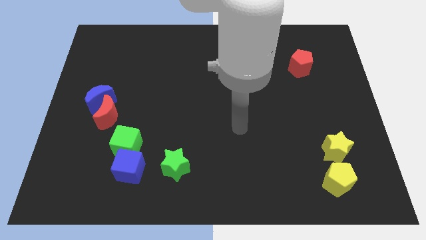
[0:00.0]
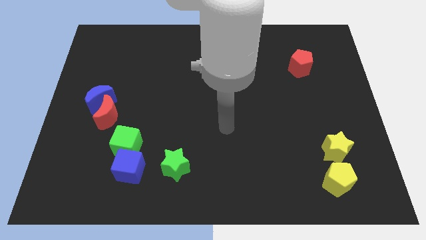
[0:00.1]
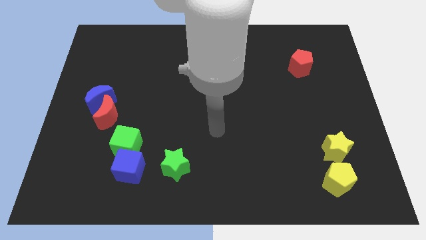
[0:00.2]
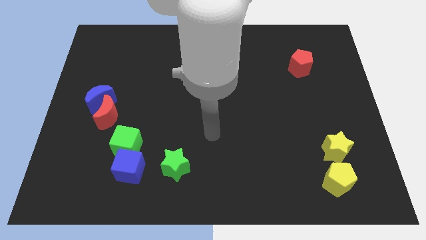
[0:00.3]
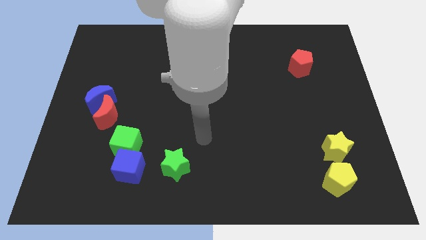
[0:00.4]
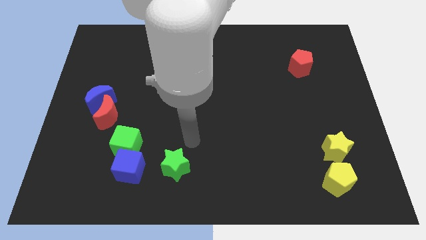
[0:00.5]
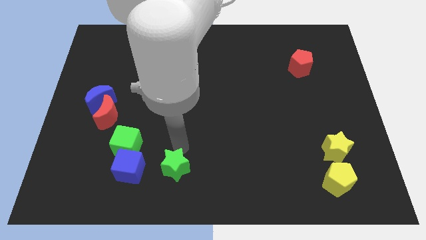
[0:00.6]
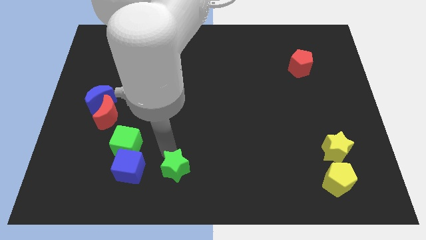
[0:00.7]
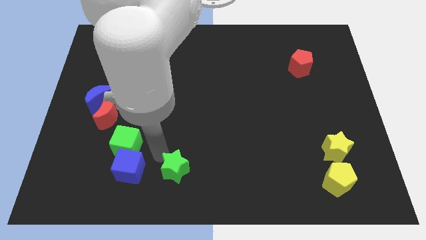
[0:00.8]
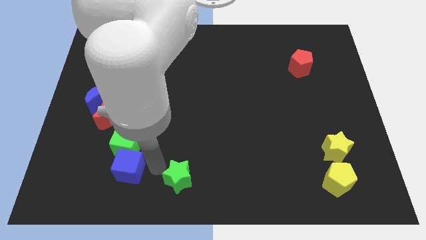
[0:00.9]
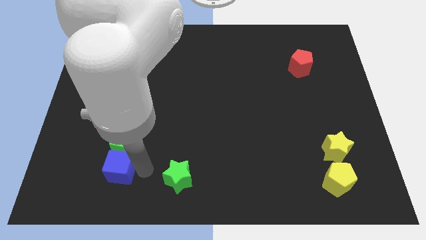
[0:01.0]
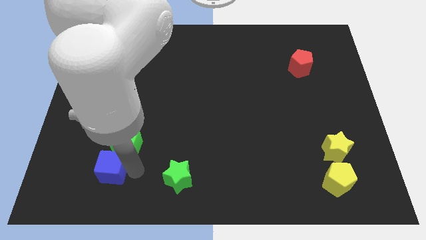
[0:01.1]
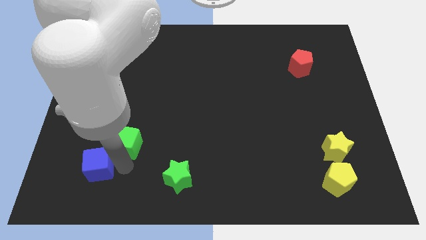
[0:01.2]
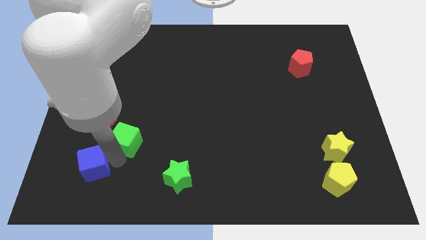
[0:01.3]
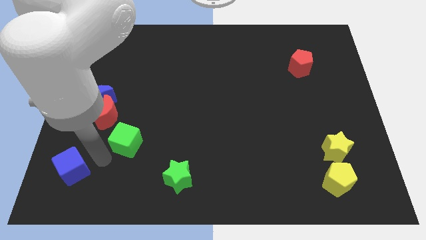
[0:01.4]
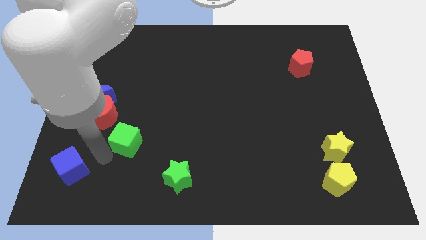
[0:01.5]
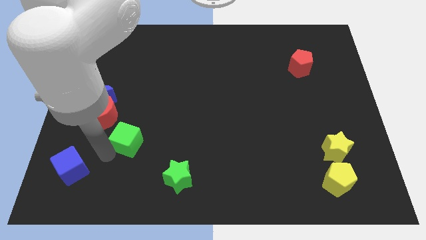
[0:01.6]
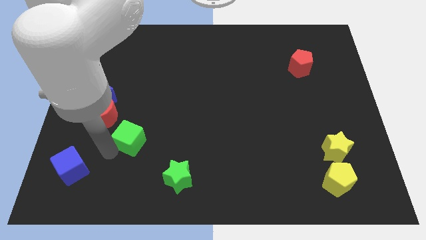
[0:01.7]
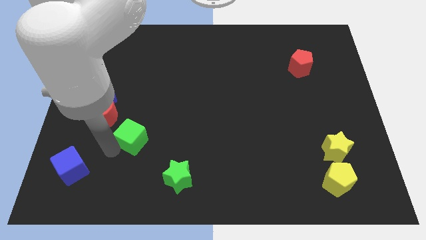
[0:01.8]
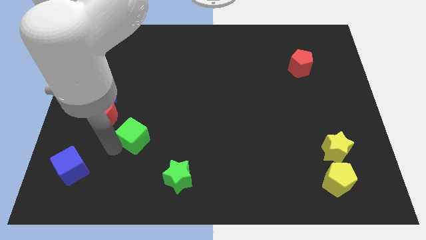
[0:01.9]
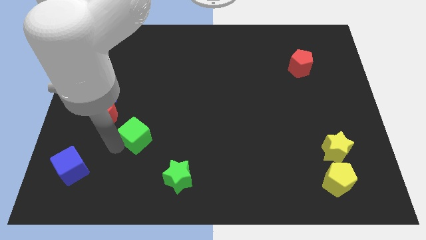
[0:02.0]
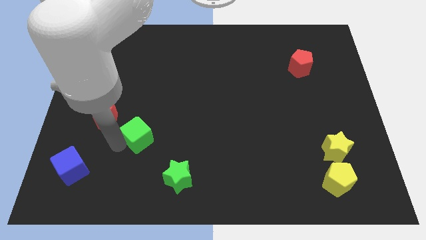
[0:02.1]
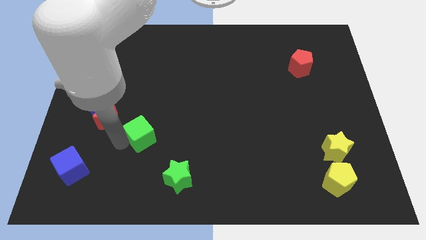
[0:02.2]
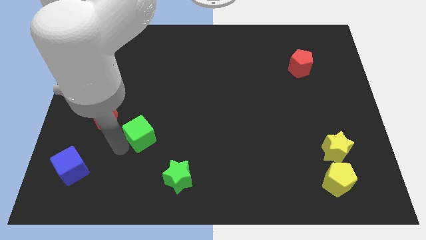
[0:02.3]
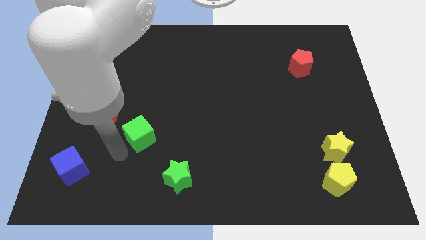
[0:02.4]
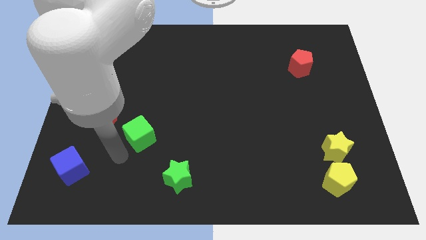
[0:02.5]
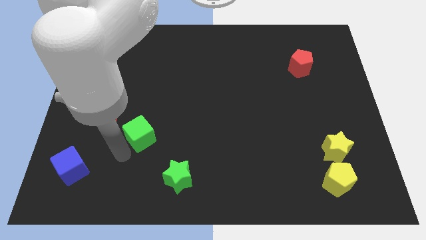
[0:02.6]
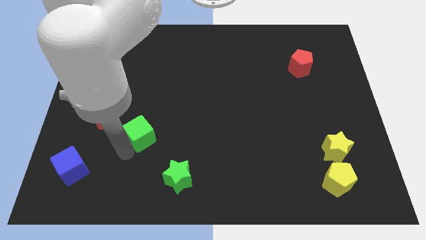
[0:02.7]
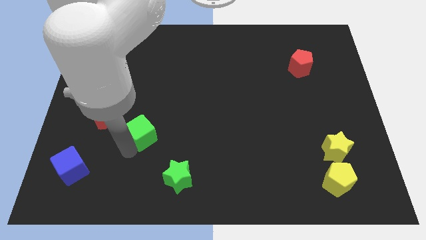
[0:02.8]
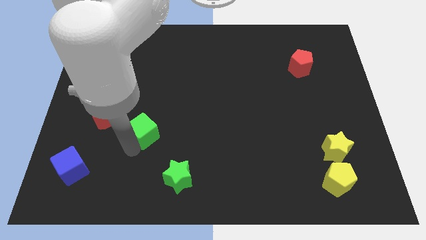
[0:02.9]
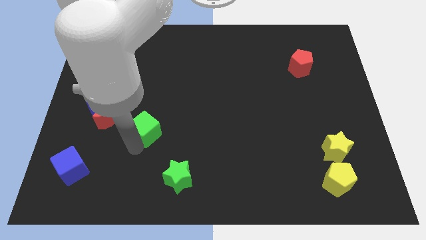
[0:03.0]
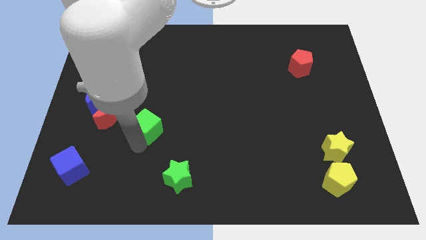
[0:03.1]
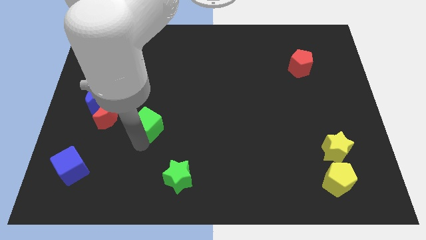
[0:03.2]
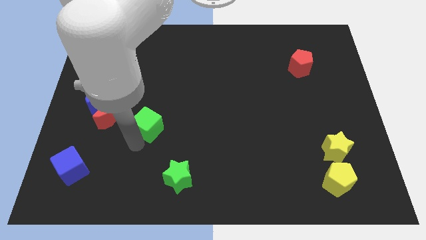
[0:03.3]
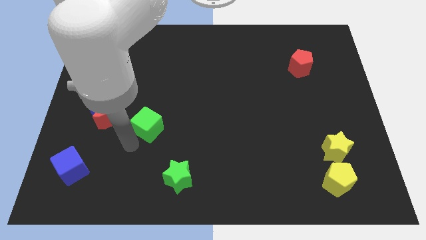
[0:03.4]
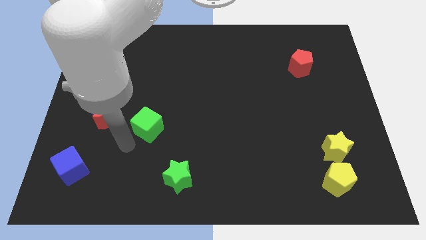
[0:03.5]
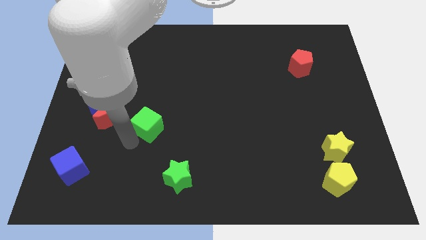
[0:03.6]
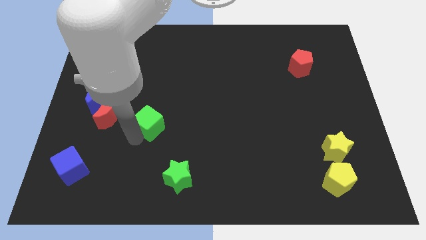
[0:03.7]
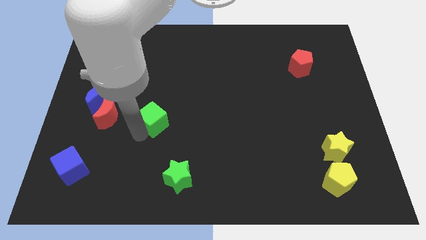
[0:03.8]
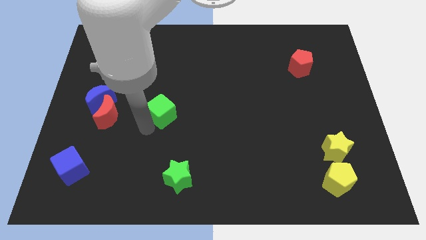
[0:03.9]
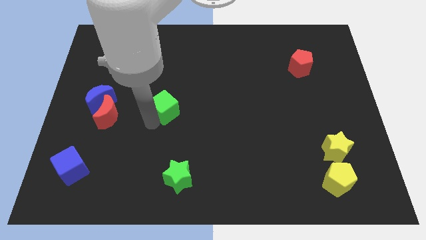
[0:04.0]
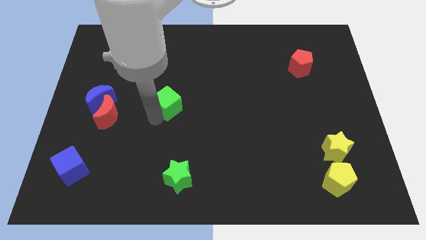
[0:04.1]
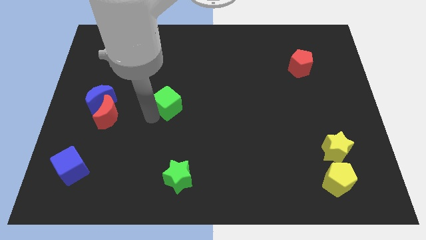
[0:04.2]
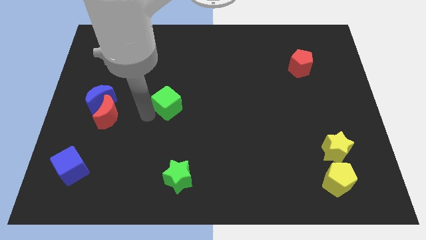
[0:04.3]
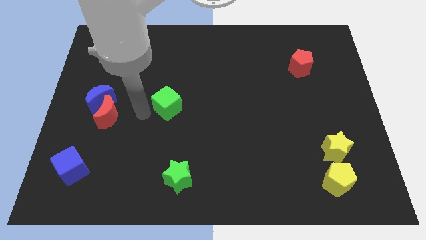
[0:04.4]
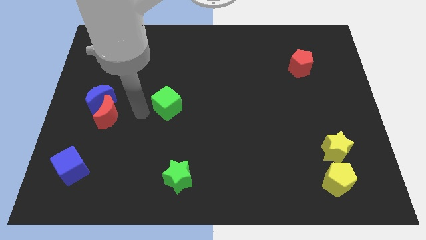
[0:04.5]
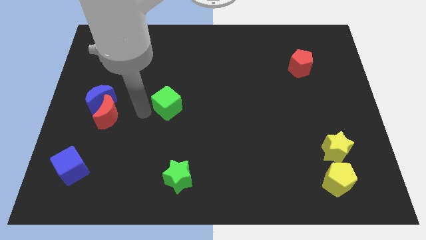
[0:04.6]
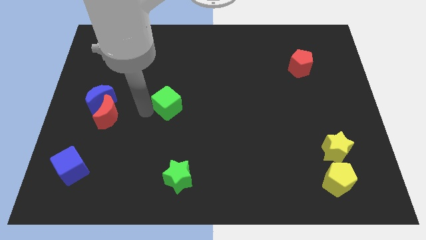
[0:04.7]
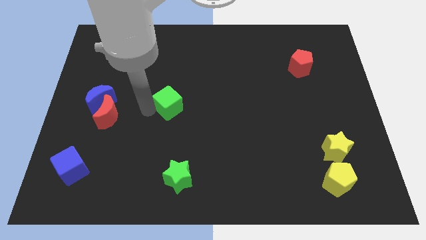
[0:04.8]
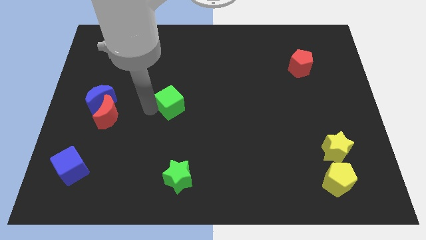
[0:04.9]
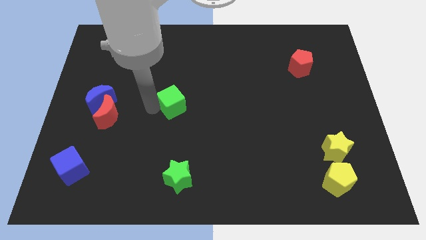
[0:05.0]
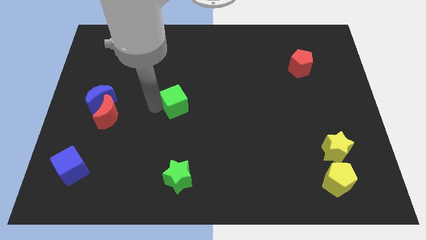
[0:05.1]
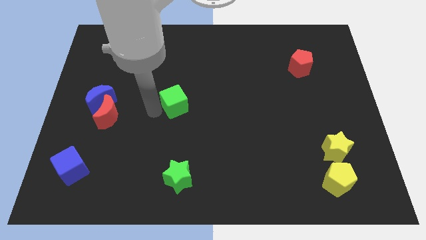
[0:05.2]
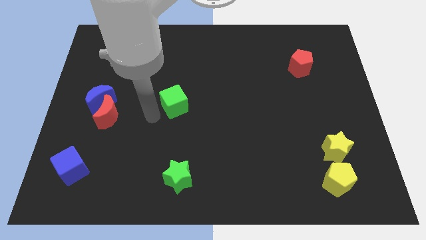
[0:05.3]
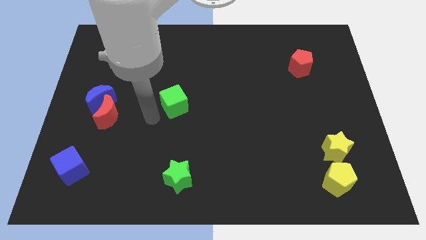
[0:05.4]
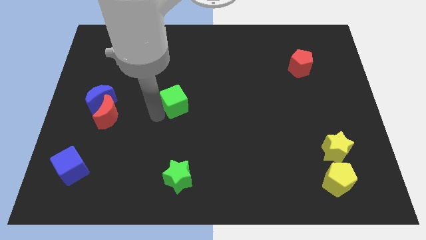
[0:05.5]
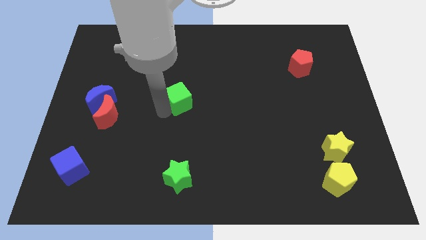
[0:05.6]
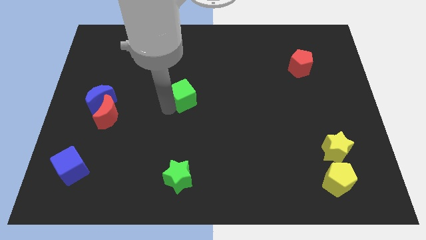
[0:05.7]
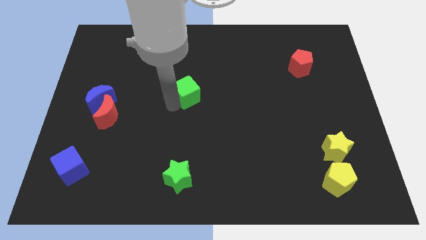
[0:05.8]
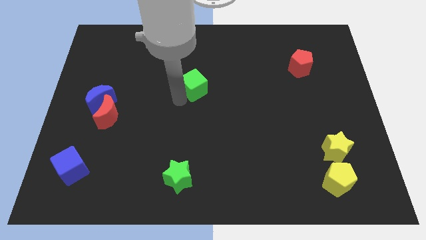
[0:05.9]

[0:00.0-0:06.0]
slide the green cube upwards and then to the right

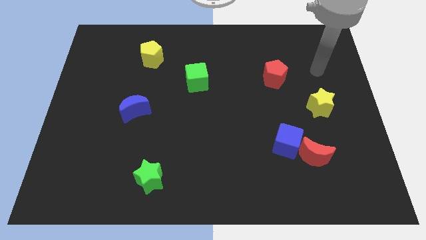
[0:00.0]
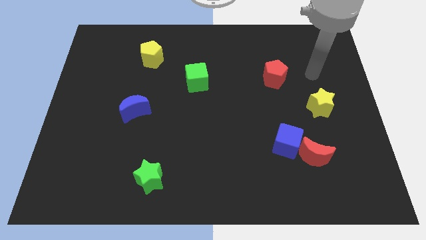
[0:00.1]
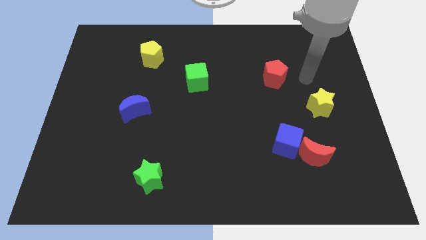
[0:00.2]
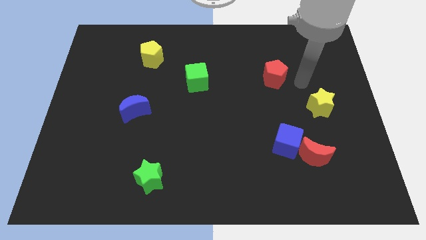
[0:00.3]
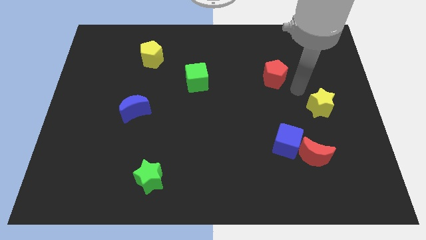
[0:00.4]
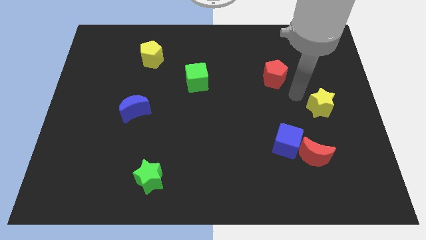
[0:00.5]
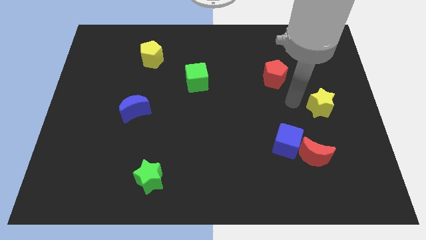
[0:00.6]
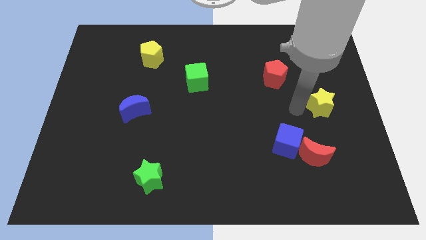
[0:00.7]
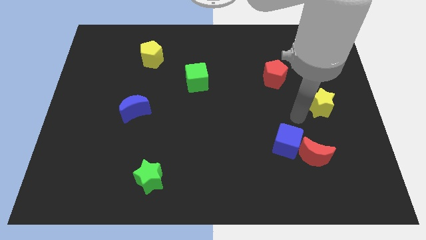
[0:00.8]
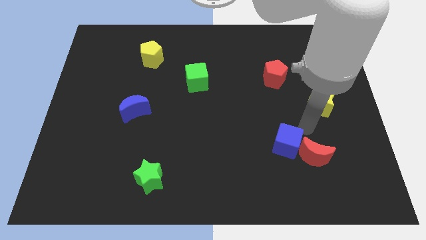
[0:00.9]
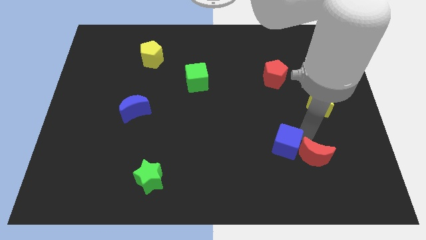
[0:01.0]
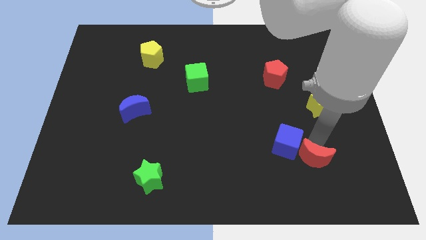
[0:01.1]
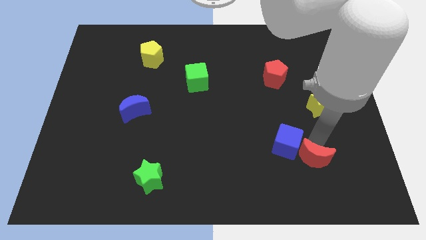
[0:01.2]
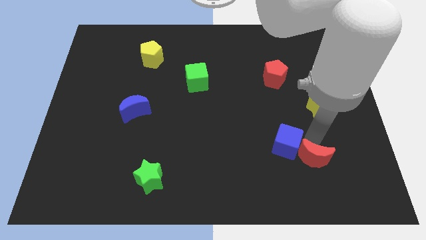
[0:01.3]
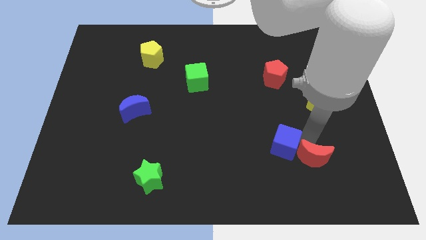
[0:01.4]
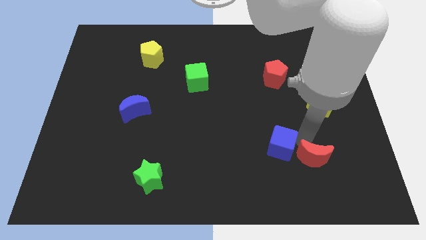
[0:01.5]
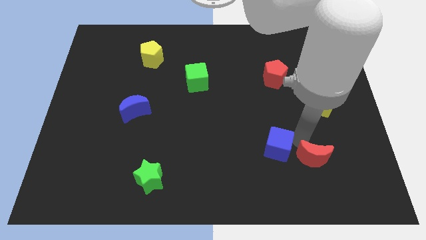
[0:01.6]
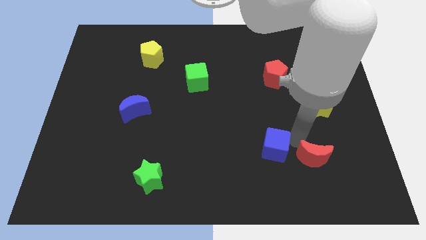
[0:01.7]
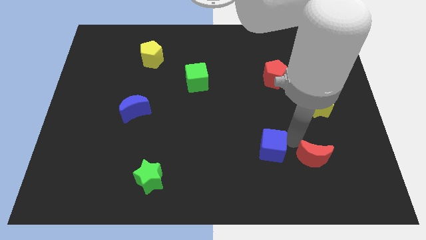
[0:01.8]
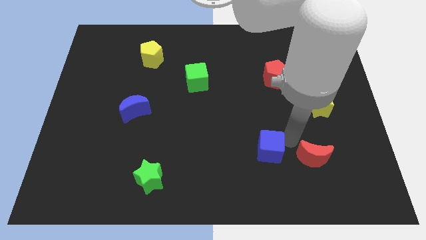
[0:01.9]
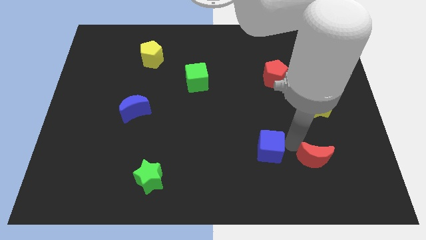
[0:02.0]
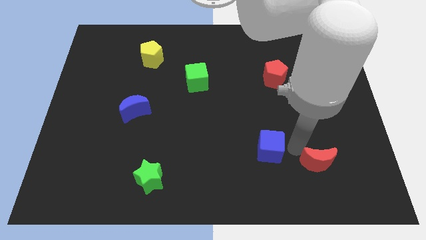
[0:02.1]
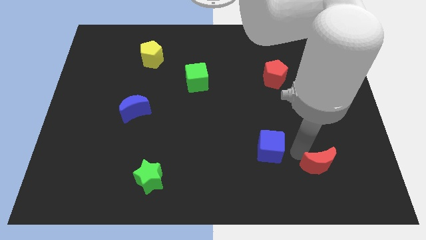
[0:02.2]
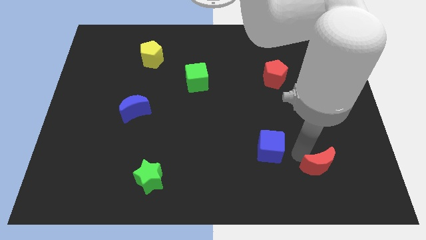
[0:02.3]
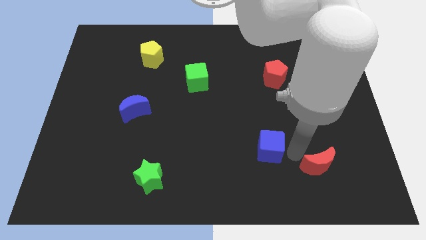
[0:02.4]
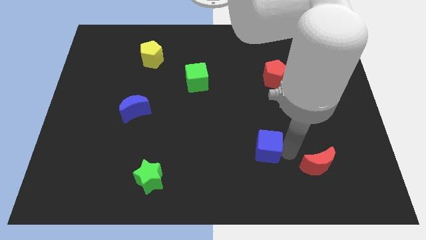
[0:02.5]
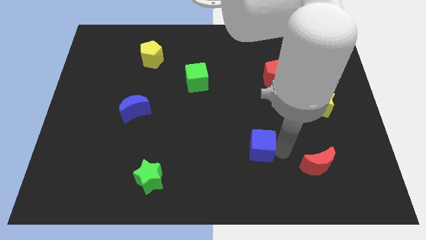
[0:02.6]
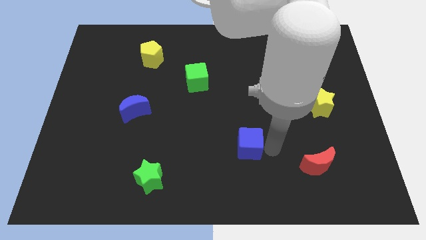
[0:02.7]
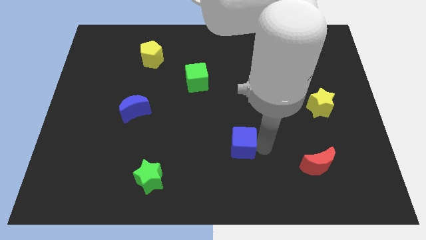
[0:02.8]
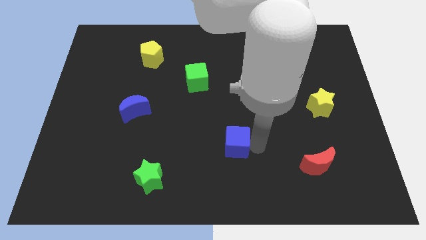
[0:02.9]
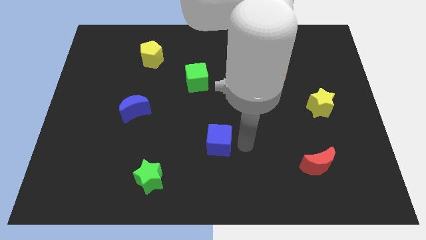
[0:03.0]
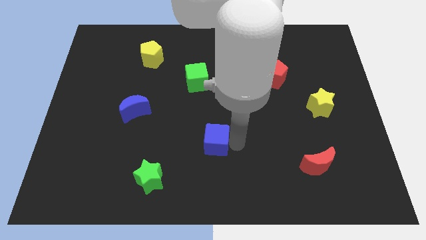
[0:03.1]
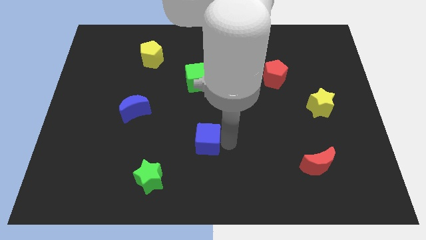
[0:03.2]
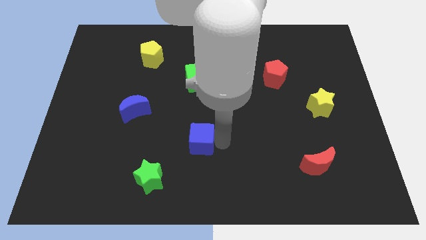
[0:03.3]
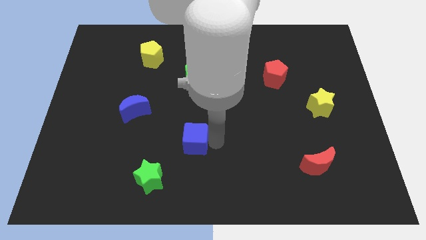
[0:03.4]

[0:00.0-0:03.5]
slide the blue cube to the left
